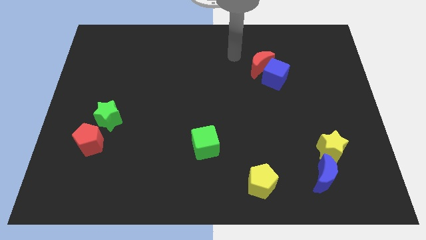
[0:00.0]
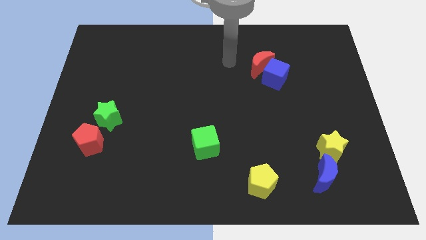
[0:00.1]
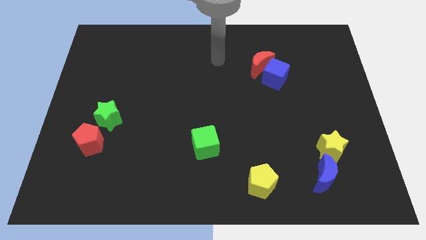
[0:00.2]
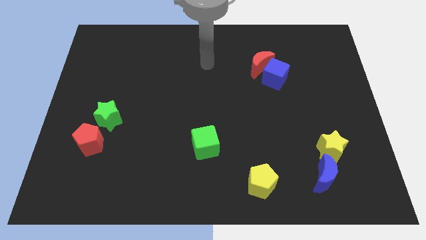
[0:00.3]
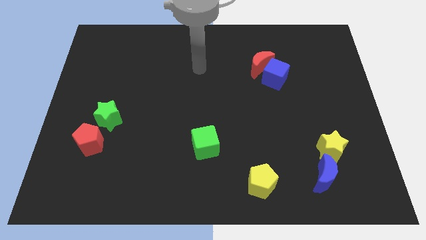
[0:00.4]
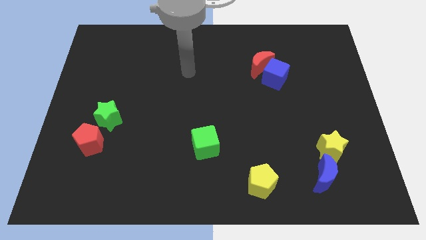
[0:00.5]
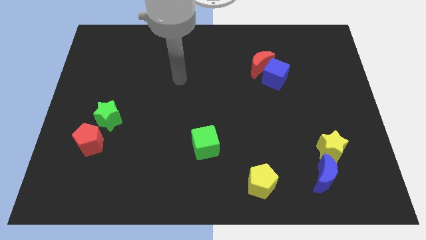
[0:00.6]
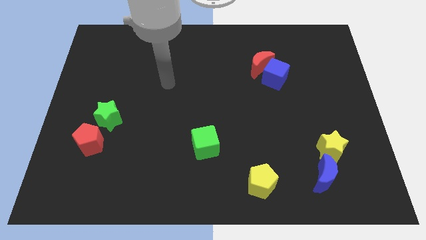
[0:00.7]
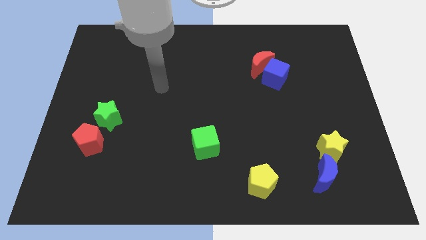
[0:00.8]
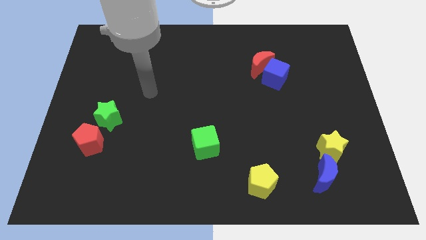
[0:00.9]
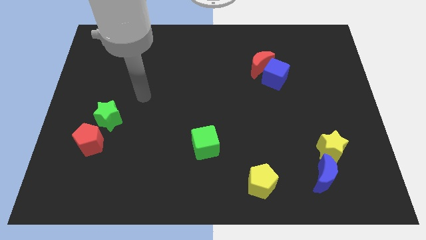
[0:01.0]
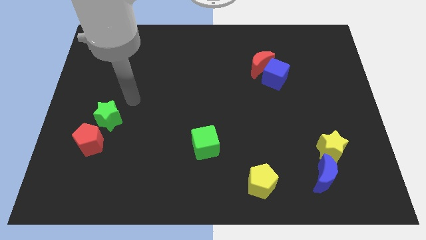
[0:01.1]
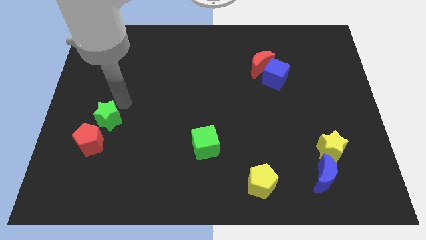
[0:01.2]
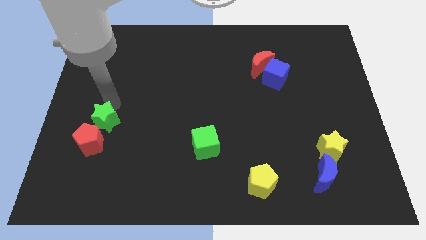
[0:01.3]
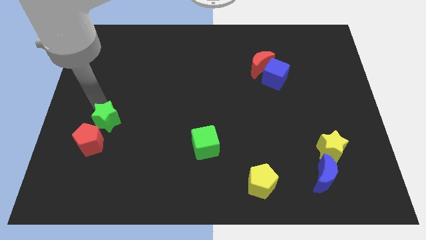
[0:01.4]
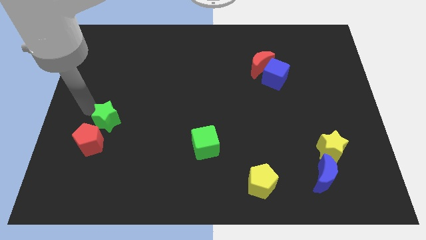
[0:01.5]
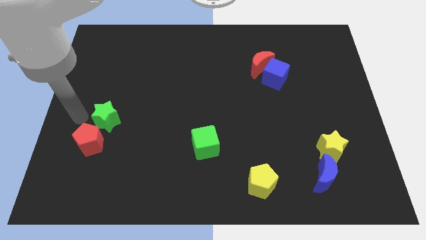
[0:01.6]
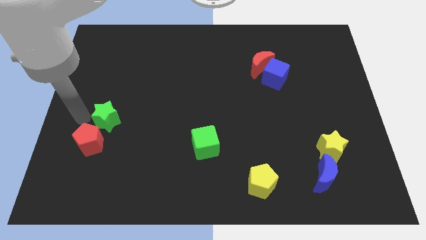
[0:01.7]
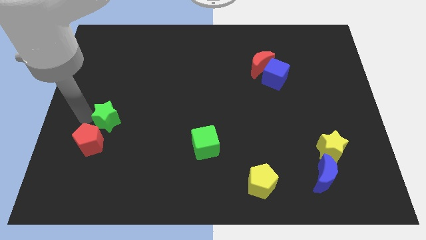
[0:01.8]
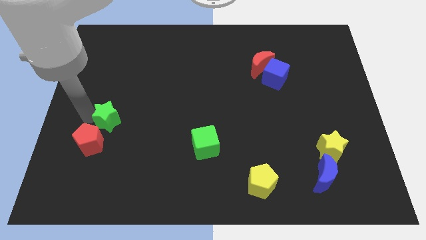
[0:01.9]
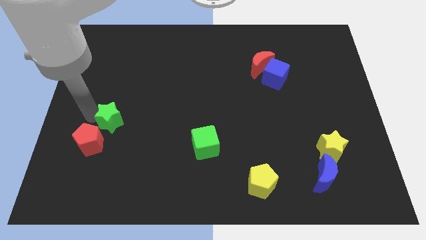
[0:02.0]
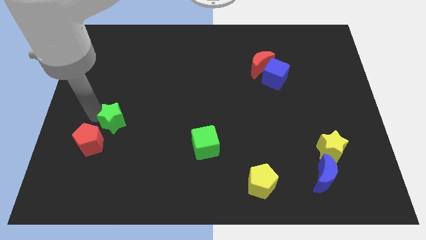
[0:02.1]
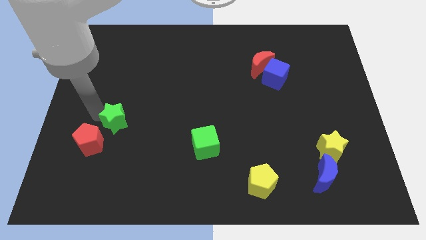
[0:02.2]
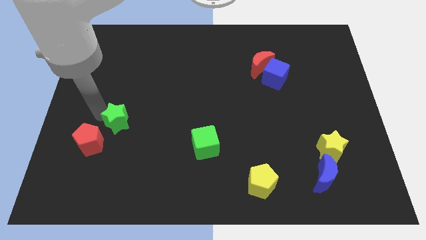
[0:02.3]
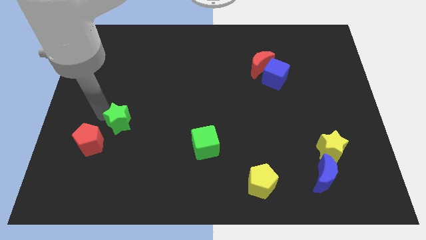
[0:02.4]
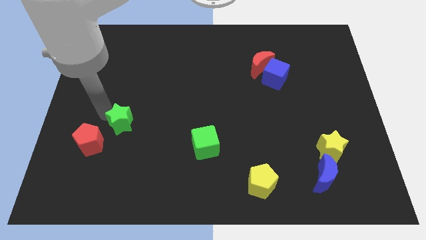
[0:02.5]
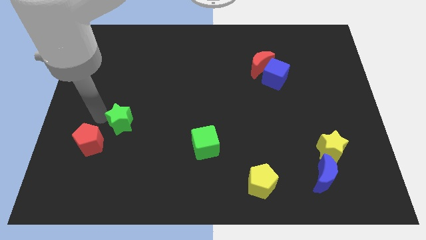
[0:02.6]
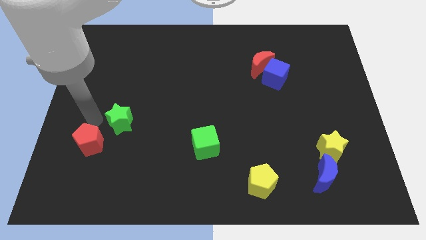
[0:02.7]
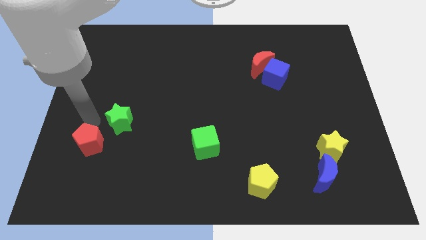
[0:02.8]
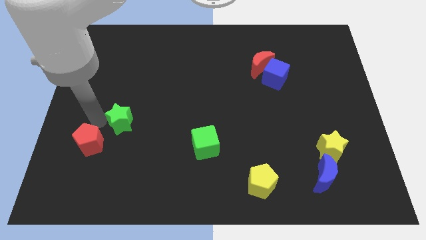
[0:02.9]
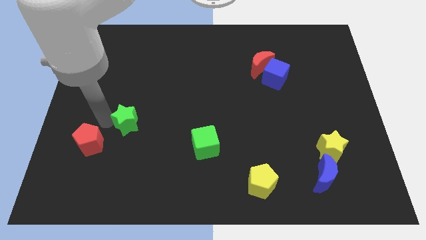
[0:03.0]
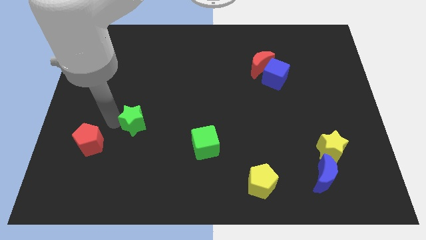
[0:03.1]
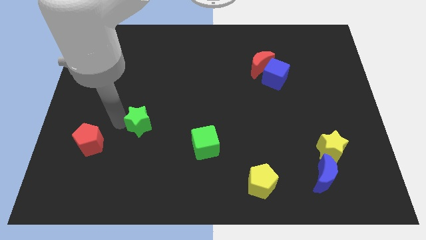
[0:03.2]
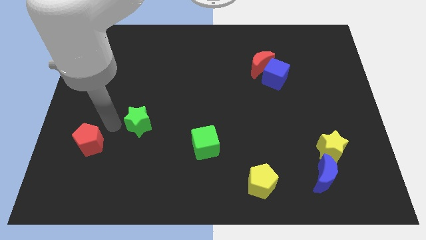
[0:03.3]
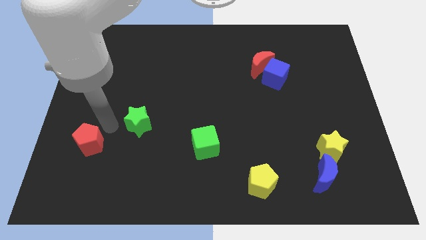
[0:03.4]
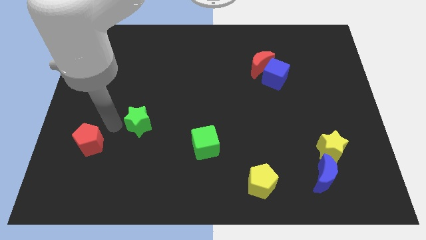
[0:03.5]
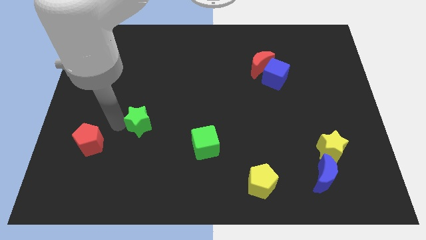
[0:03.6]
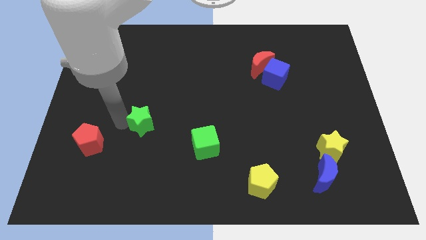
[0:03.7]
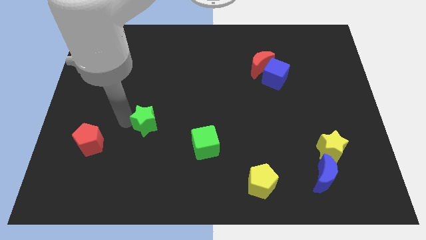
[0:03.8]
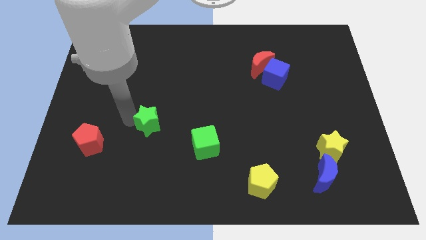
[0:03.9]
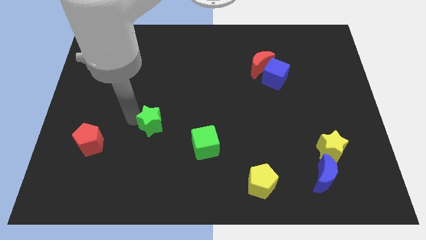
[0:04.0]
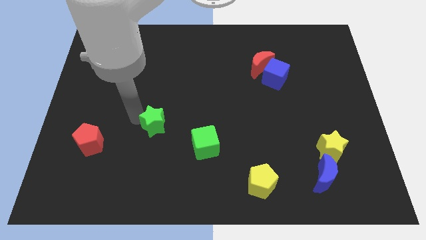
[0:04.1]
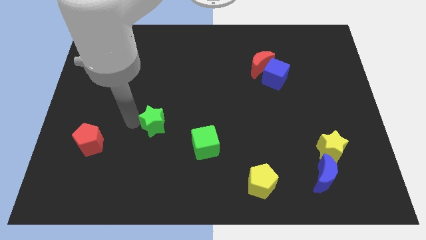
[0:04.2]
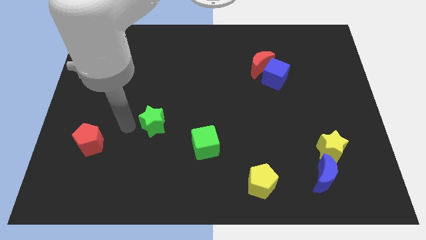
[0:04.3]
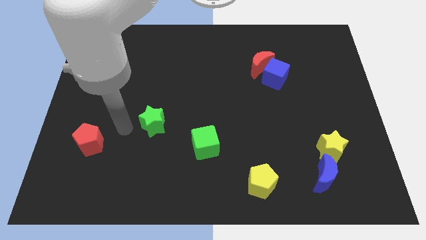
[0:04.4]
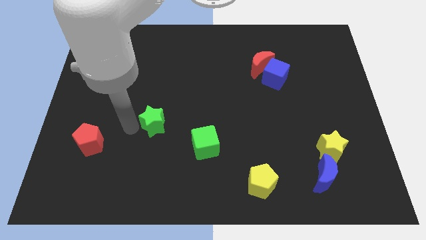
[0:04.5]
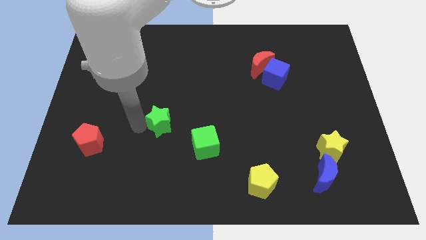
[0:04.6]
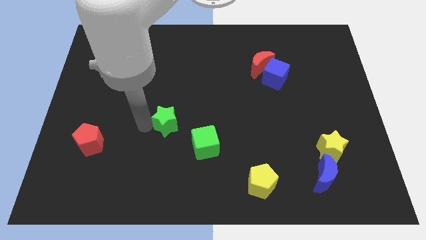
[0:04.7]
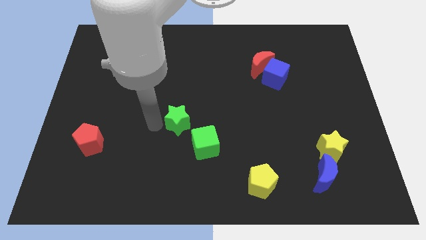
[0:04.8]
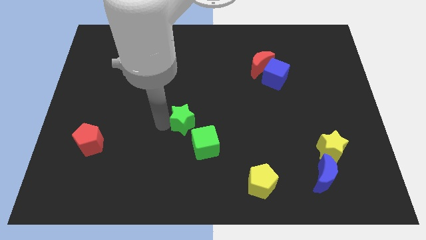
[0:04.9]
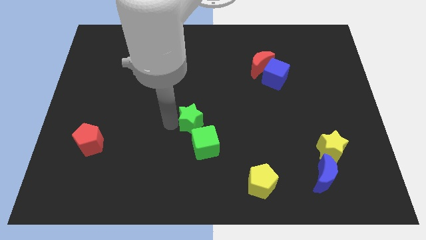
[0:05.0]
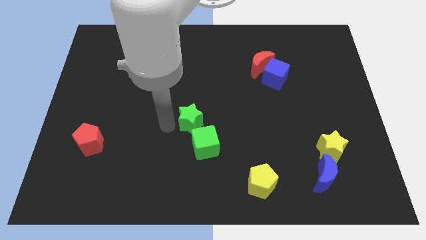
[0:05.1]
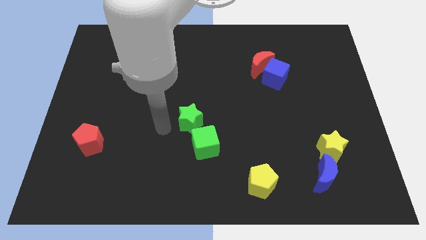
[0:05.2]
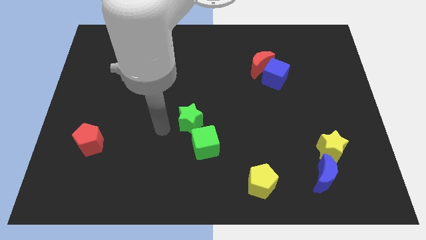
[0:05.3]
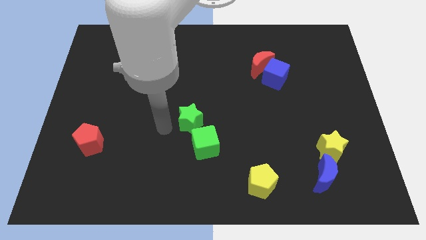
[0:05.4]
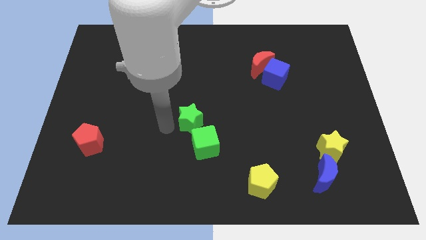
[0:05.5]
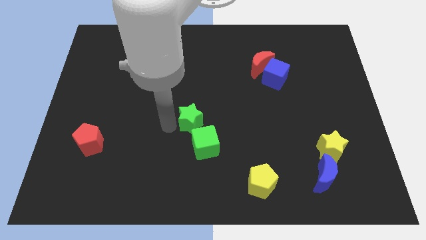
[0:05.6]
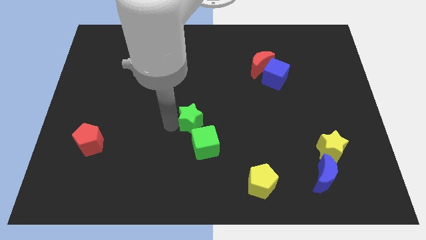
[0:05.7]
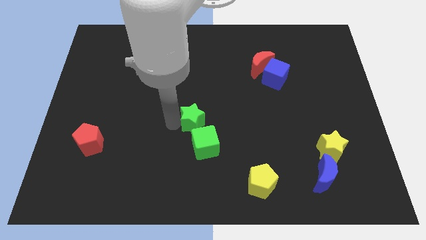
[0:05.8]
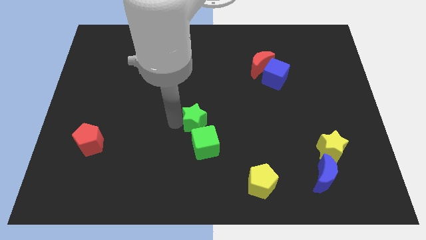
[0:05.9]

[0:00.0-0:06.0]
move the green star right

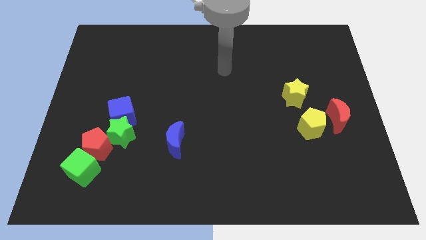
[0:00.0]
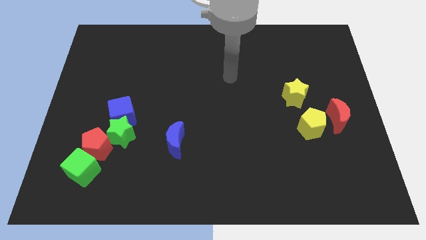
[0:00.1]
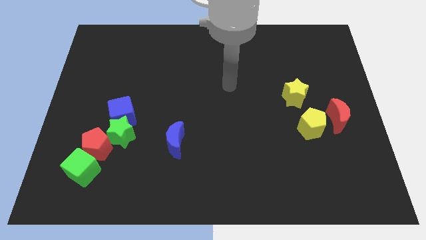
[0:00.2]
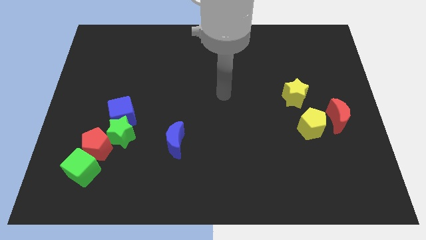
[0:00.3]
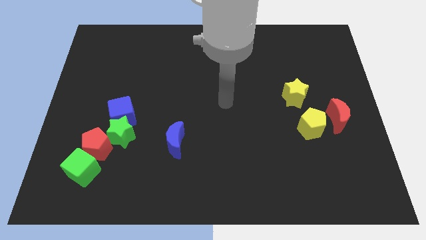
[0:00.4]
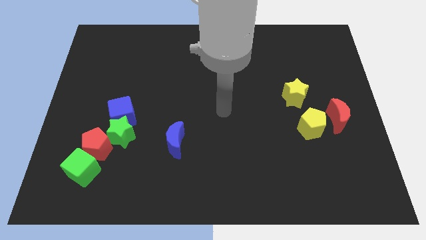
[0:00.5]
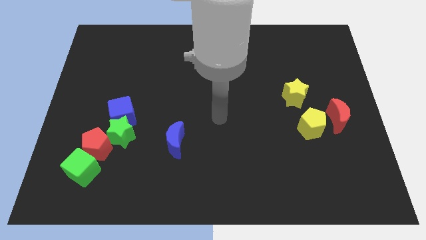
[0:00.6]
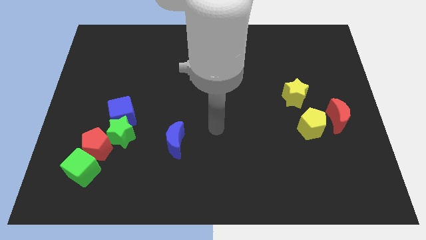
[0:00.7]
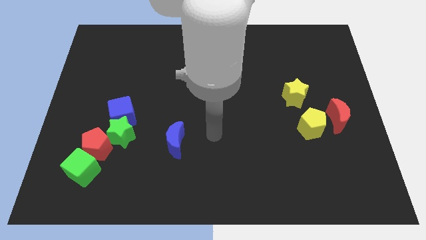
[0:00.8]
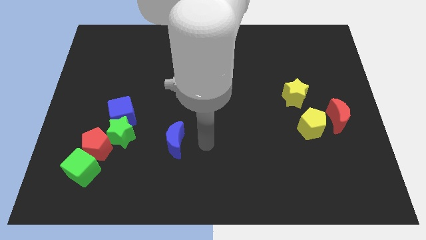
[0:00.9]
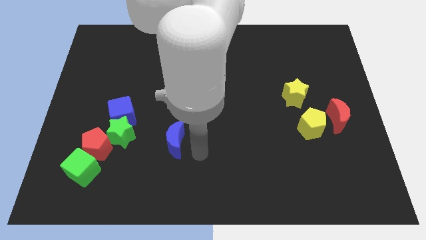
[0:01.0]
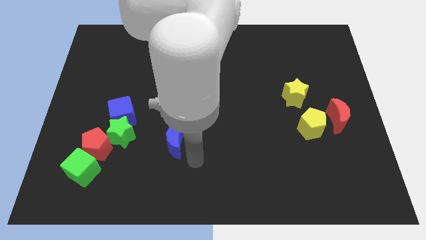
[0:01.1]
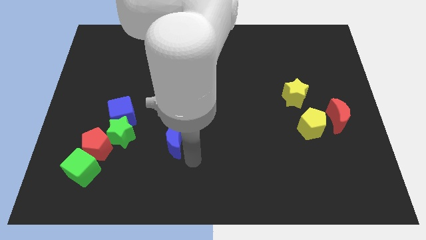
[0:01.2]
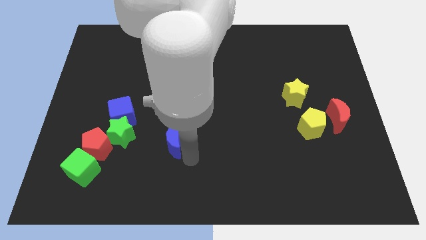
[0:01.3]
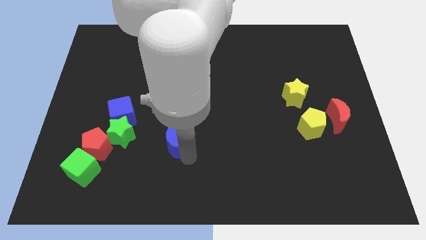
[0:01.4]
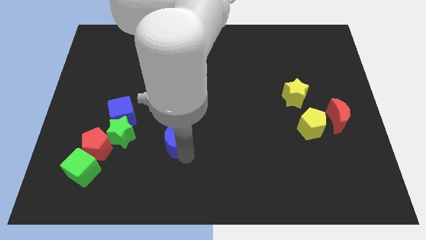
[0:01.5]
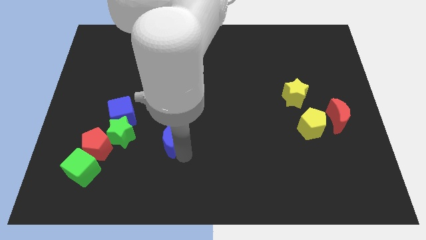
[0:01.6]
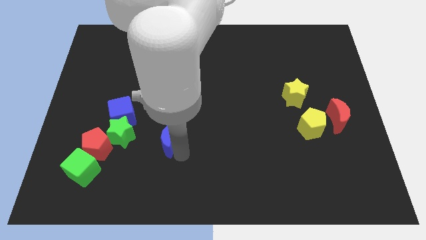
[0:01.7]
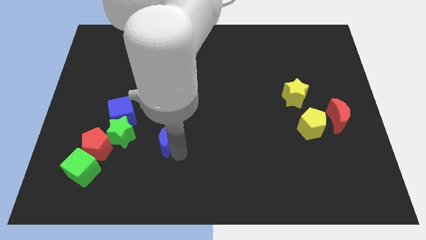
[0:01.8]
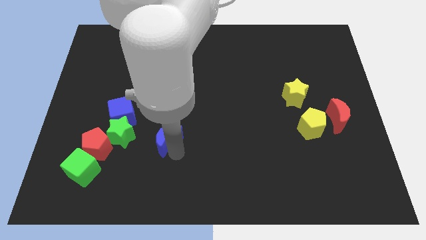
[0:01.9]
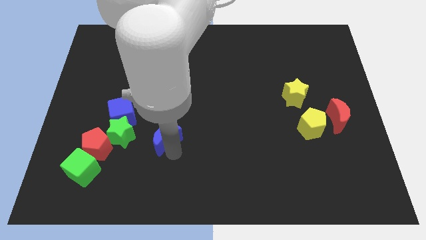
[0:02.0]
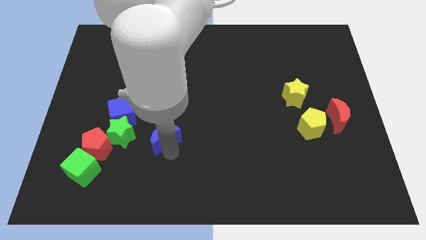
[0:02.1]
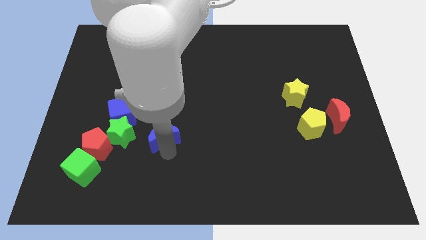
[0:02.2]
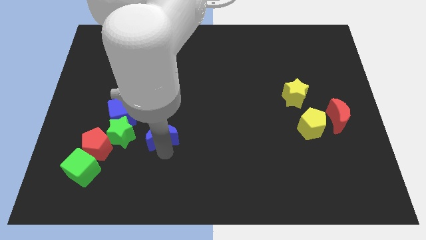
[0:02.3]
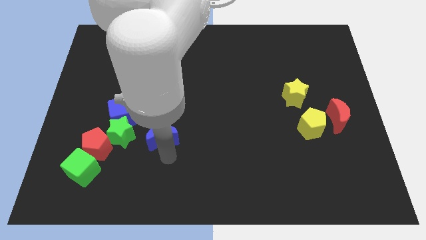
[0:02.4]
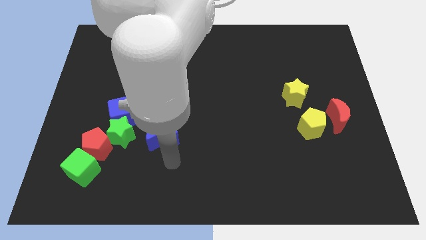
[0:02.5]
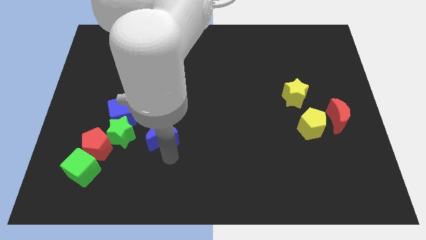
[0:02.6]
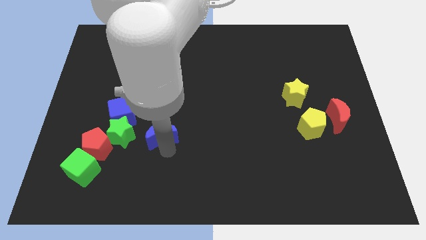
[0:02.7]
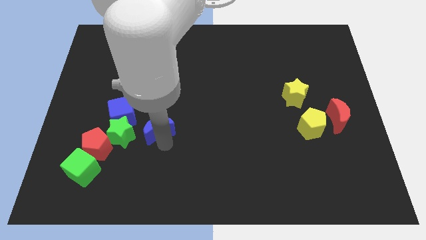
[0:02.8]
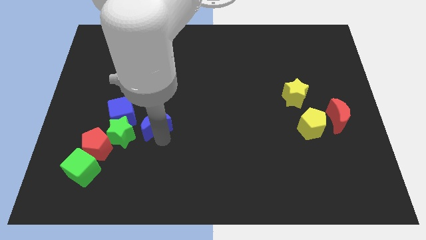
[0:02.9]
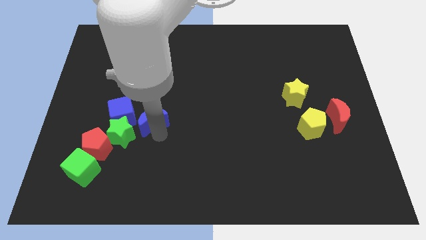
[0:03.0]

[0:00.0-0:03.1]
push the blue moon a little bit diagonally up and left
